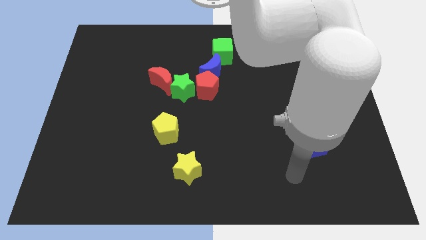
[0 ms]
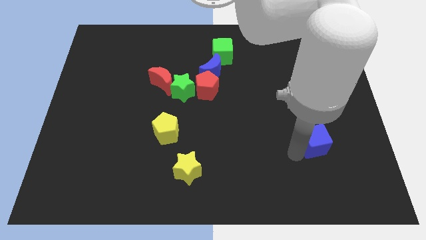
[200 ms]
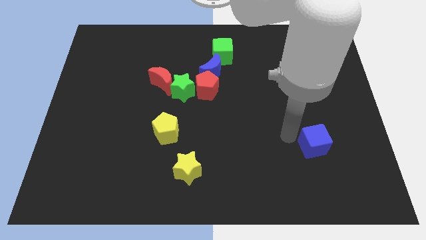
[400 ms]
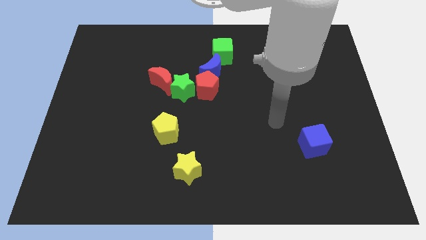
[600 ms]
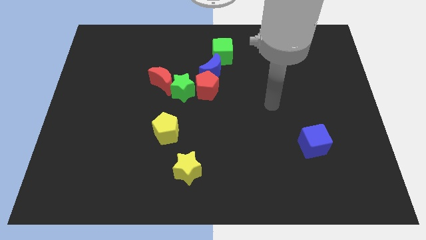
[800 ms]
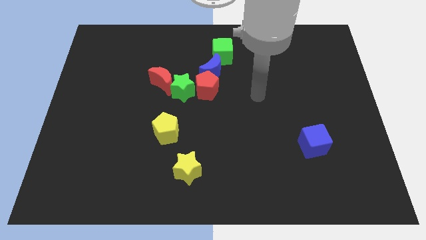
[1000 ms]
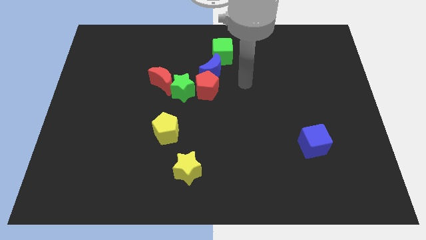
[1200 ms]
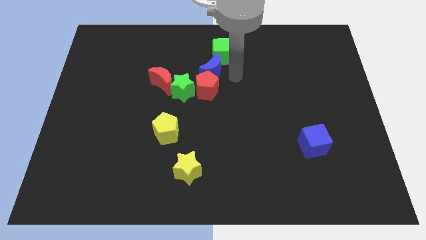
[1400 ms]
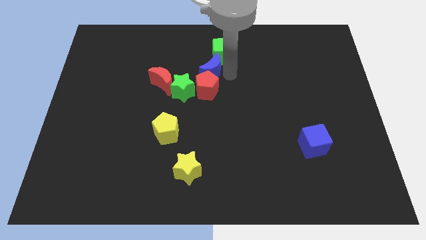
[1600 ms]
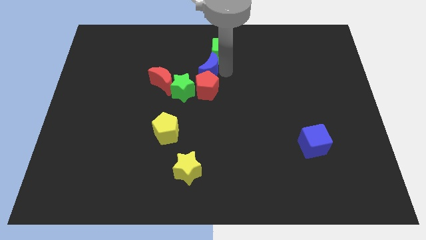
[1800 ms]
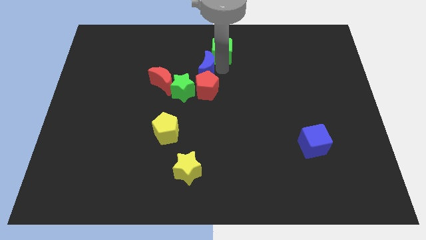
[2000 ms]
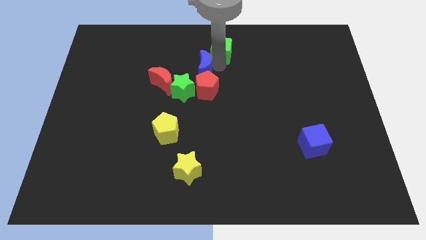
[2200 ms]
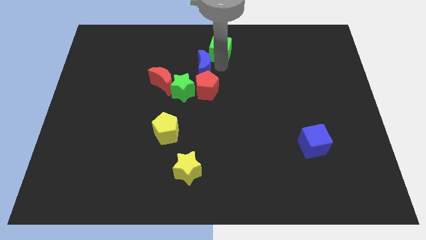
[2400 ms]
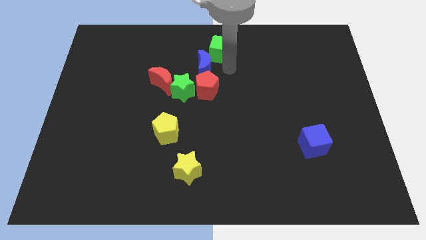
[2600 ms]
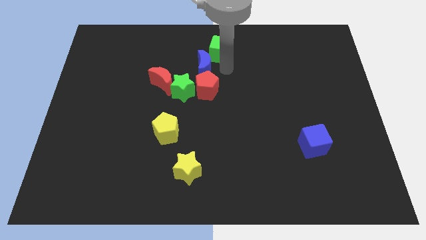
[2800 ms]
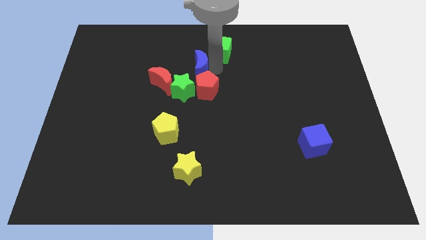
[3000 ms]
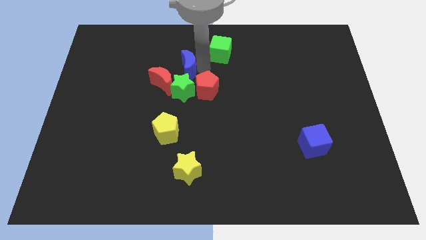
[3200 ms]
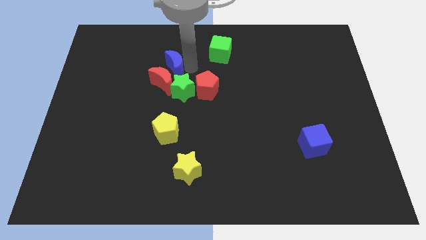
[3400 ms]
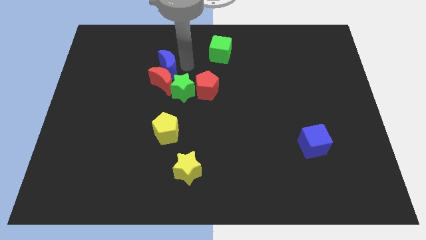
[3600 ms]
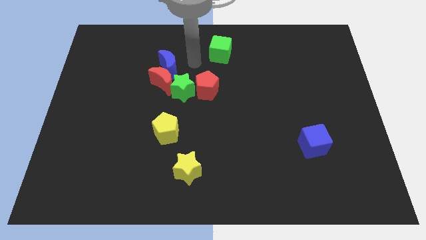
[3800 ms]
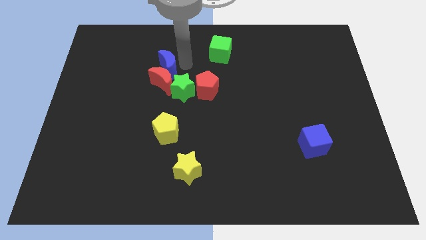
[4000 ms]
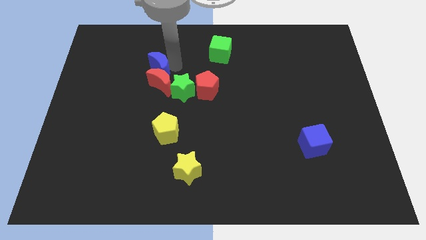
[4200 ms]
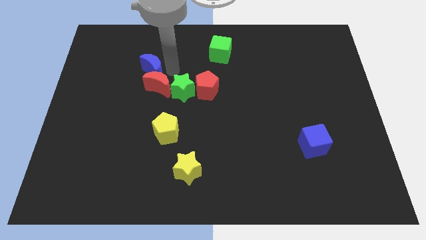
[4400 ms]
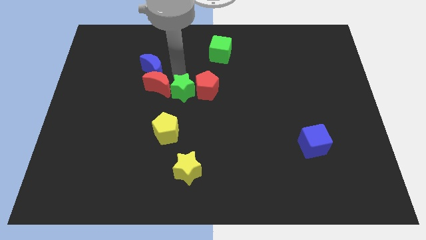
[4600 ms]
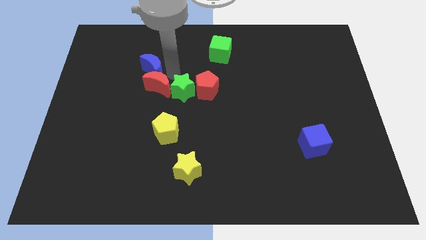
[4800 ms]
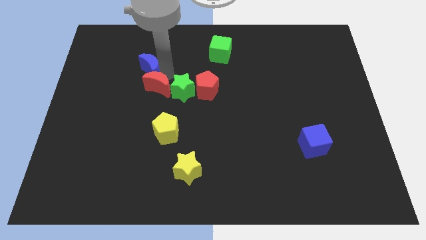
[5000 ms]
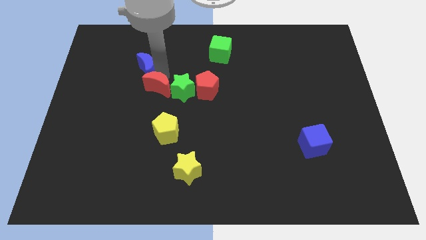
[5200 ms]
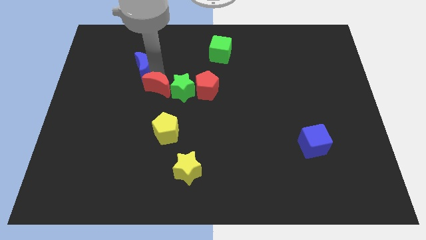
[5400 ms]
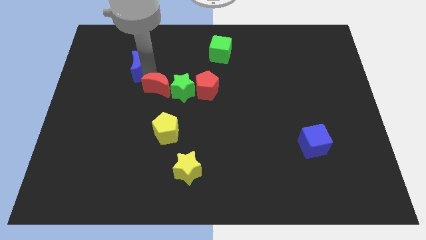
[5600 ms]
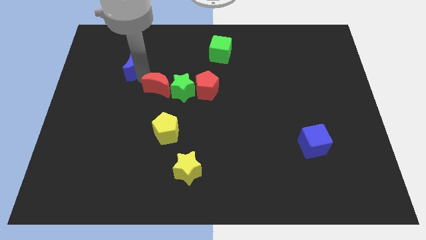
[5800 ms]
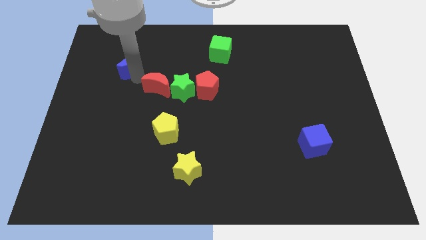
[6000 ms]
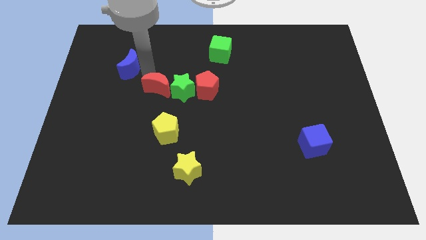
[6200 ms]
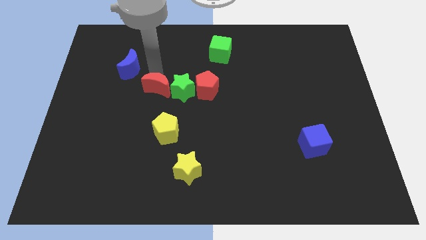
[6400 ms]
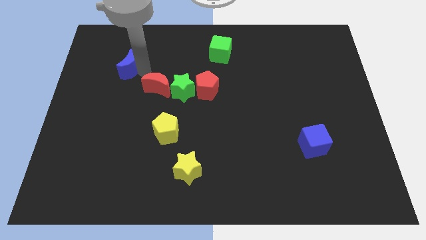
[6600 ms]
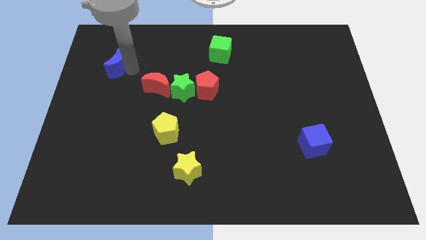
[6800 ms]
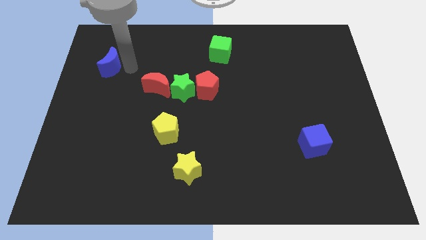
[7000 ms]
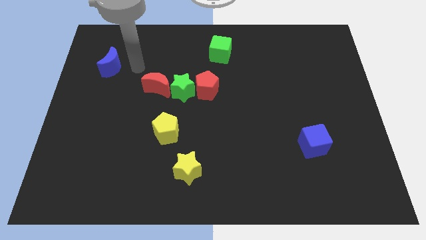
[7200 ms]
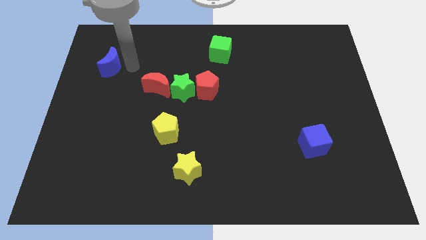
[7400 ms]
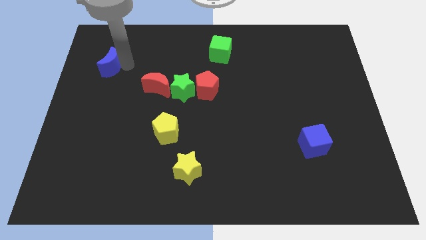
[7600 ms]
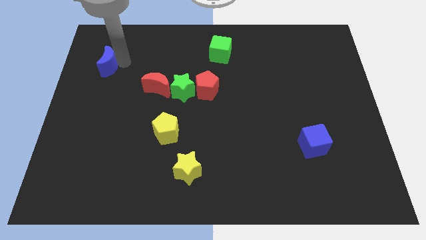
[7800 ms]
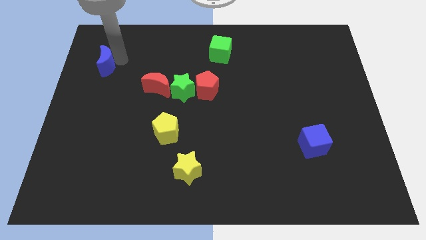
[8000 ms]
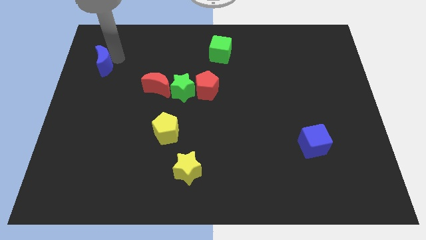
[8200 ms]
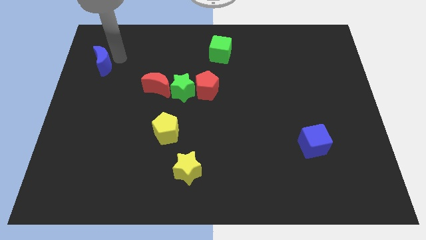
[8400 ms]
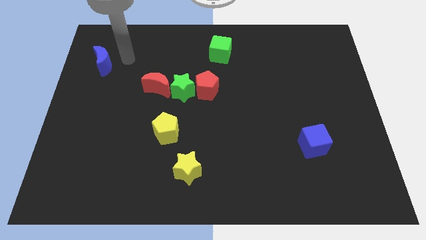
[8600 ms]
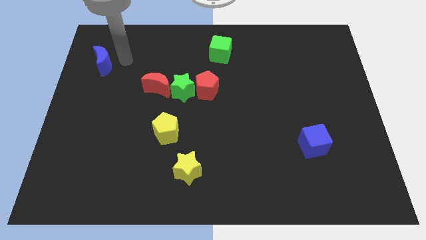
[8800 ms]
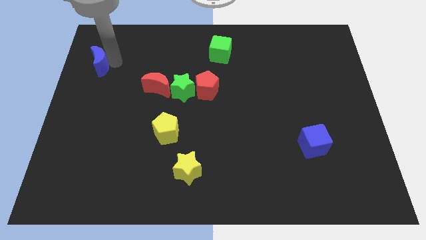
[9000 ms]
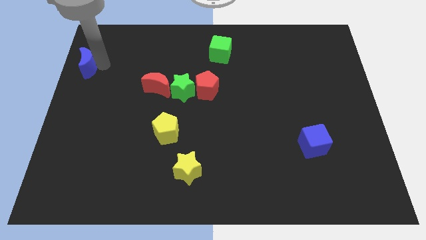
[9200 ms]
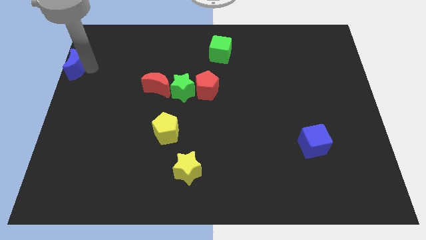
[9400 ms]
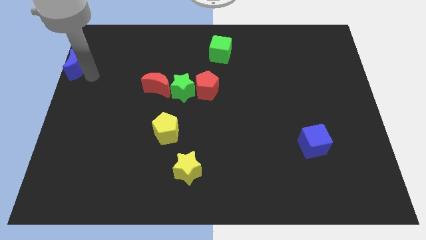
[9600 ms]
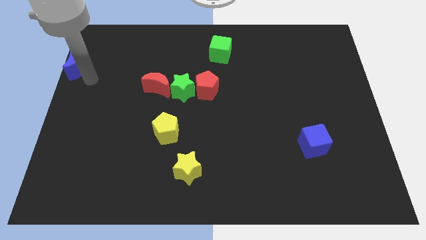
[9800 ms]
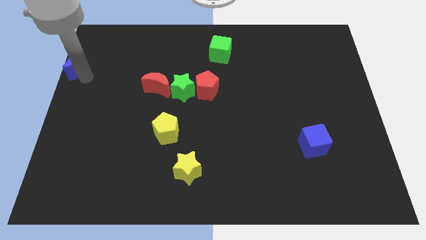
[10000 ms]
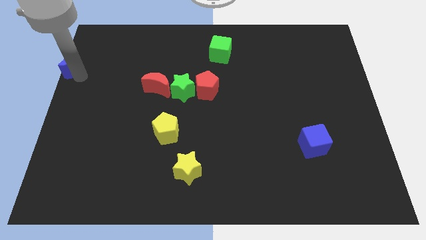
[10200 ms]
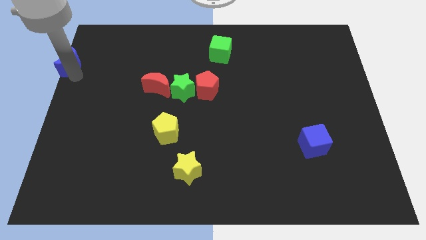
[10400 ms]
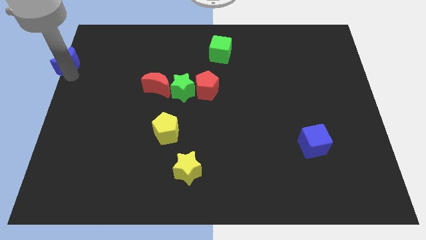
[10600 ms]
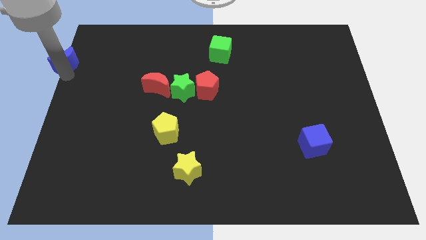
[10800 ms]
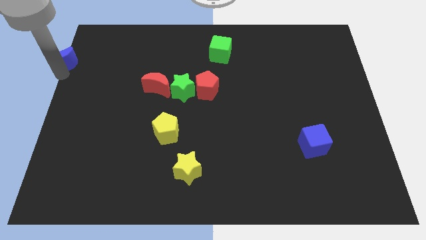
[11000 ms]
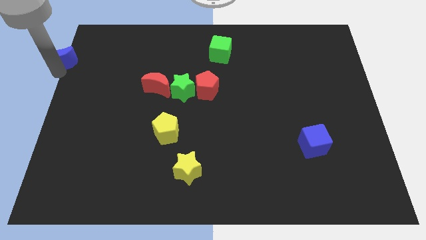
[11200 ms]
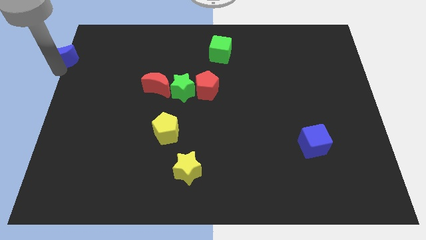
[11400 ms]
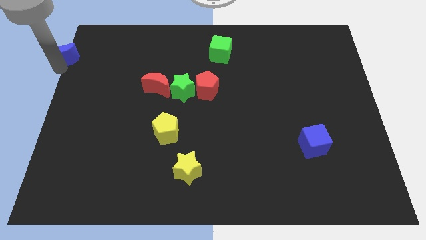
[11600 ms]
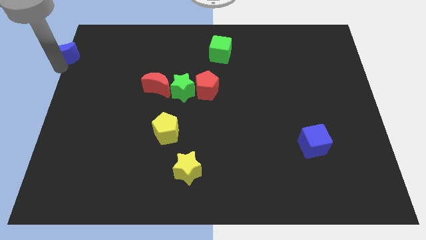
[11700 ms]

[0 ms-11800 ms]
push the blue moon to the top left of the board

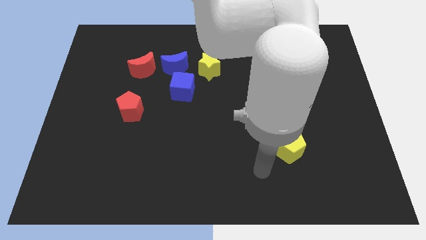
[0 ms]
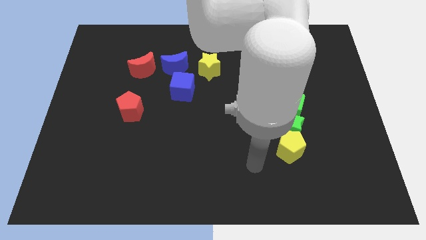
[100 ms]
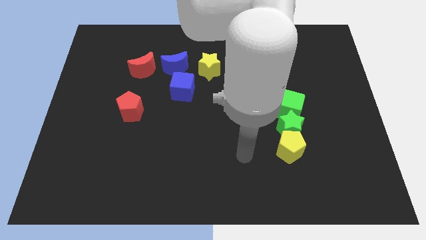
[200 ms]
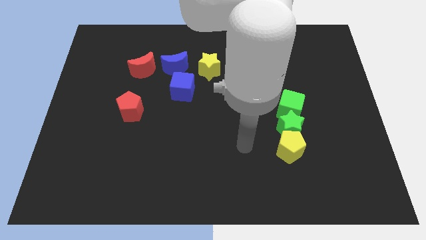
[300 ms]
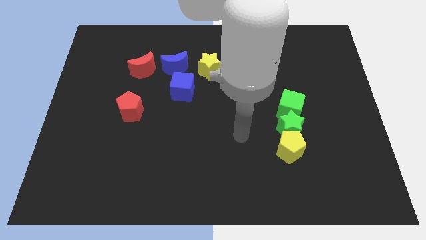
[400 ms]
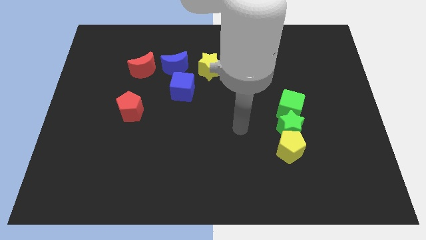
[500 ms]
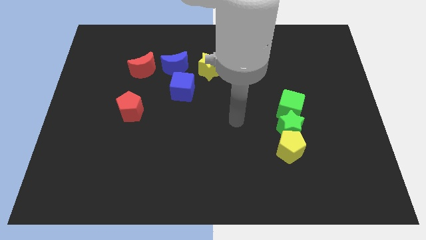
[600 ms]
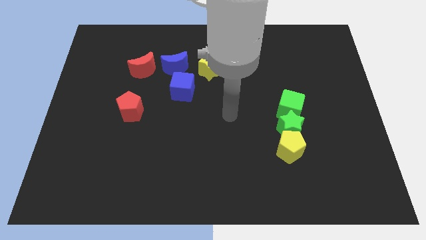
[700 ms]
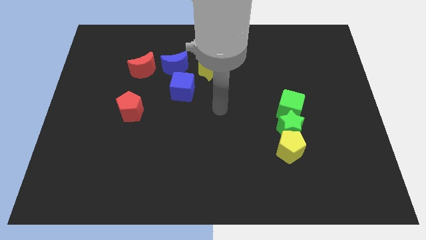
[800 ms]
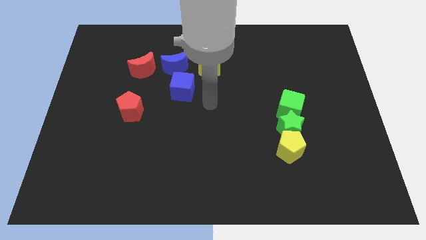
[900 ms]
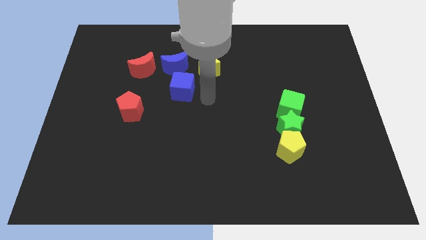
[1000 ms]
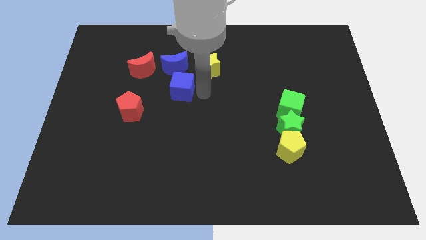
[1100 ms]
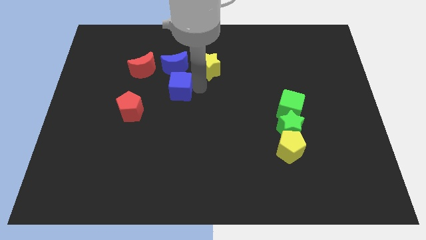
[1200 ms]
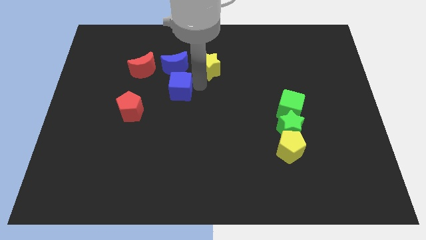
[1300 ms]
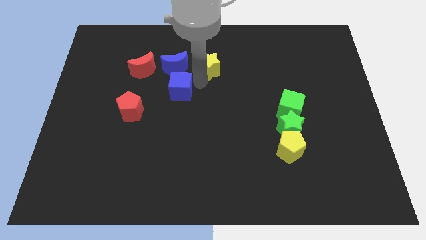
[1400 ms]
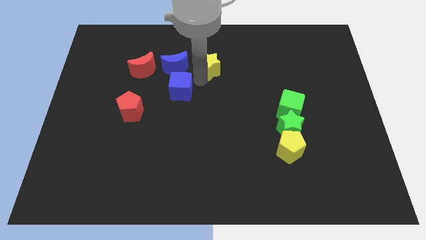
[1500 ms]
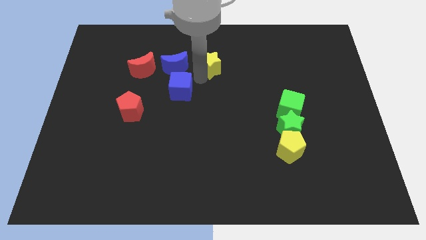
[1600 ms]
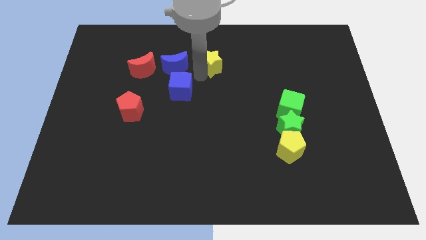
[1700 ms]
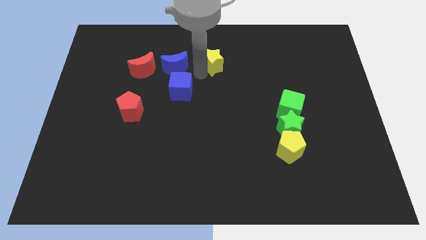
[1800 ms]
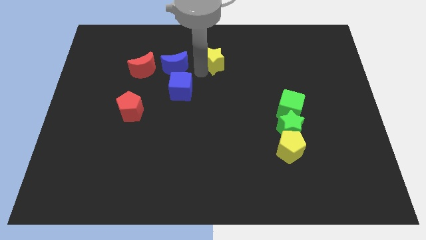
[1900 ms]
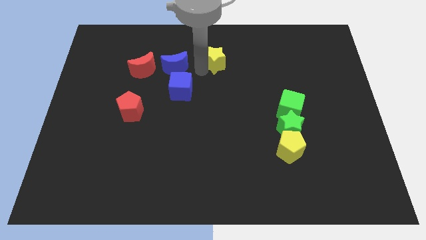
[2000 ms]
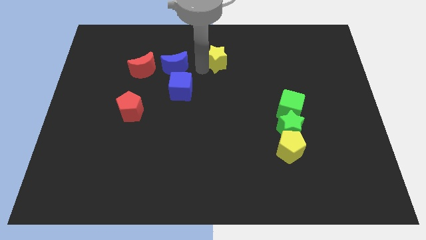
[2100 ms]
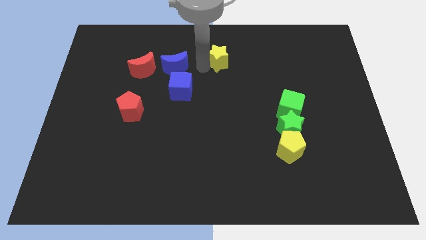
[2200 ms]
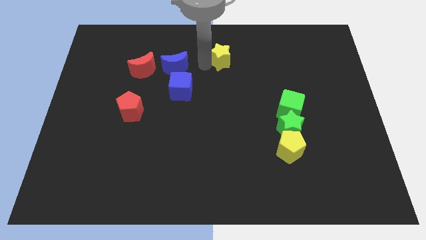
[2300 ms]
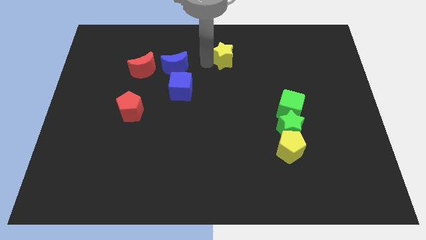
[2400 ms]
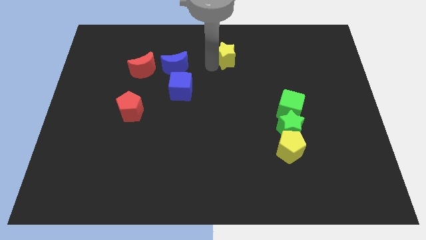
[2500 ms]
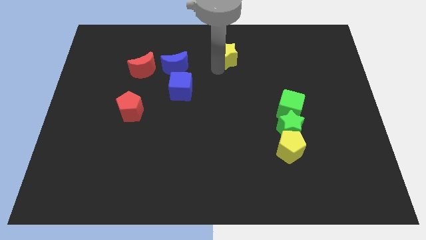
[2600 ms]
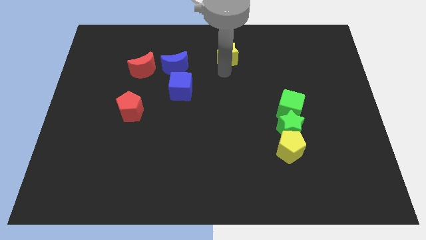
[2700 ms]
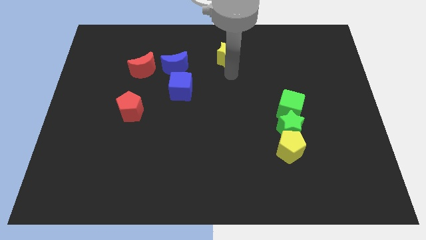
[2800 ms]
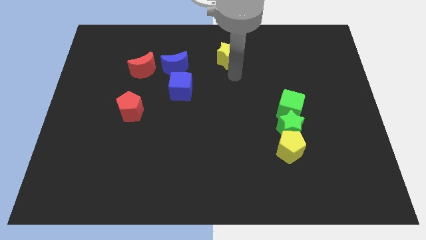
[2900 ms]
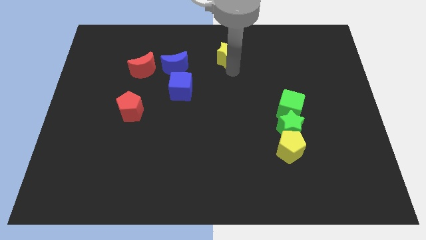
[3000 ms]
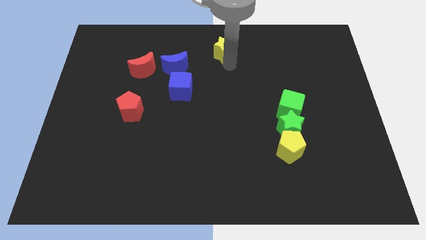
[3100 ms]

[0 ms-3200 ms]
push the yellow star to the towards your base
